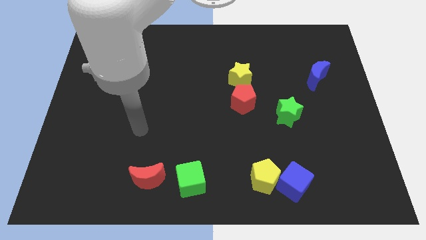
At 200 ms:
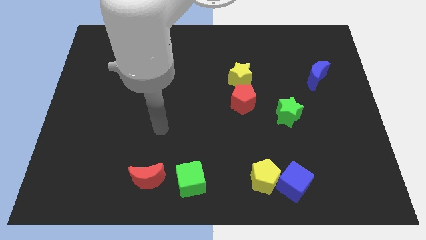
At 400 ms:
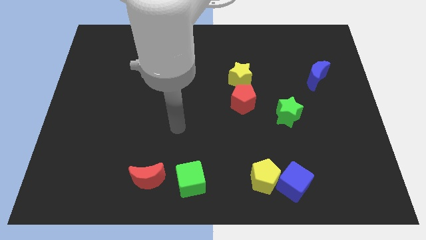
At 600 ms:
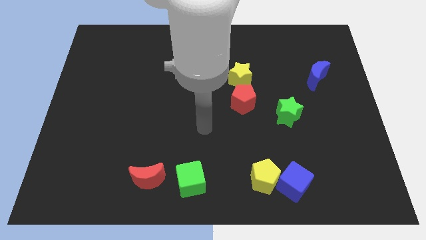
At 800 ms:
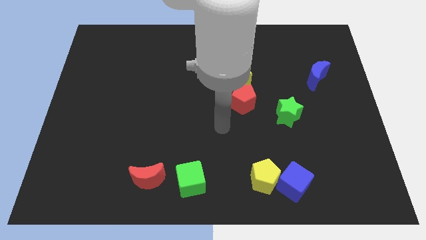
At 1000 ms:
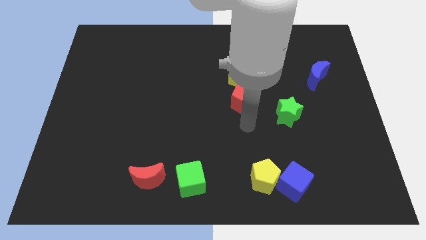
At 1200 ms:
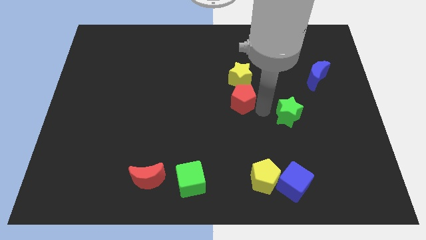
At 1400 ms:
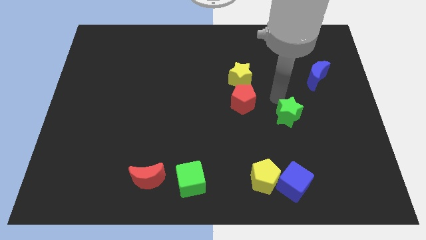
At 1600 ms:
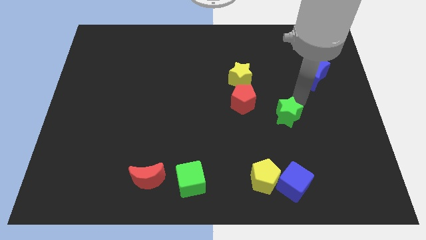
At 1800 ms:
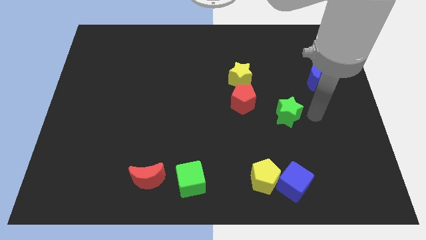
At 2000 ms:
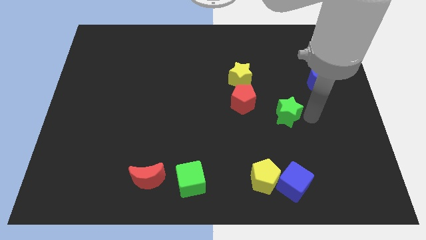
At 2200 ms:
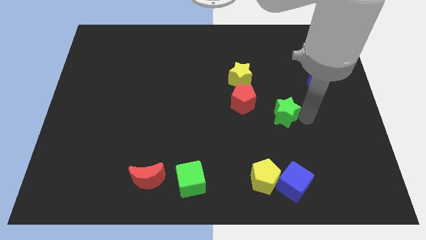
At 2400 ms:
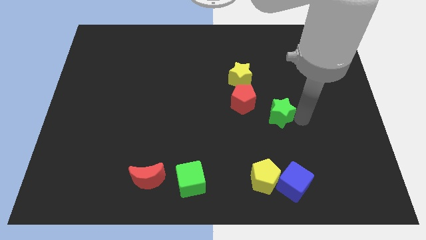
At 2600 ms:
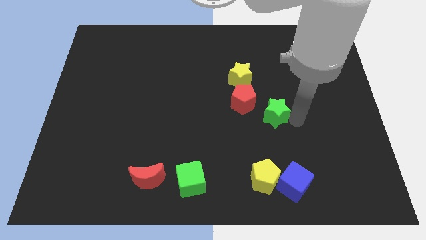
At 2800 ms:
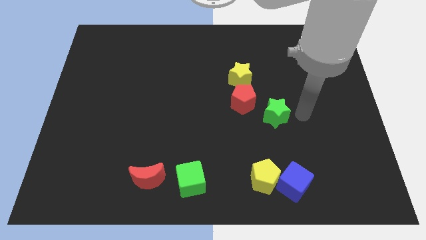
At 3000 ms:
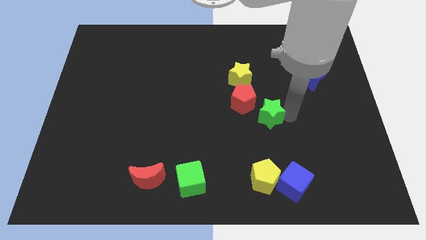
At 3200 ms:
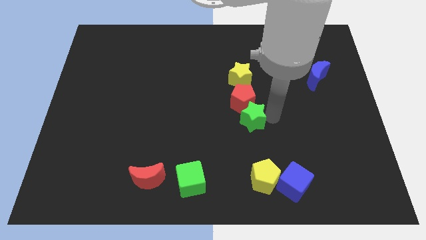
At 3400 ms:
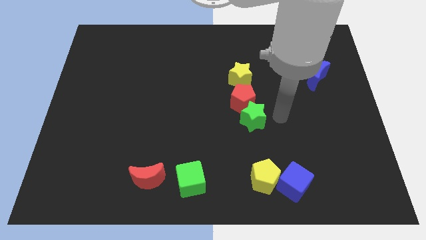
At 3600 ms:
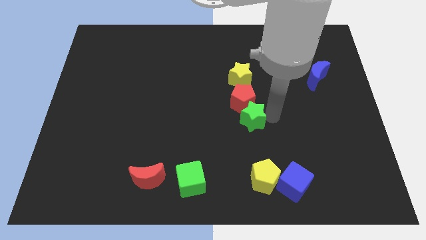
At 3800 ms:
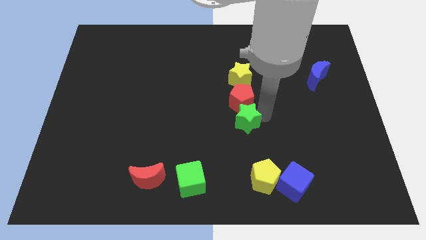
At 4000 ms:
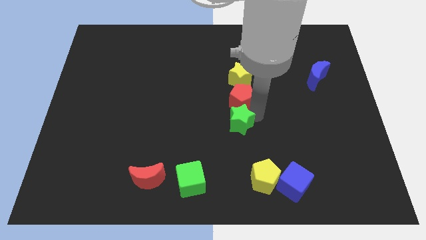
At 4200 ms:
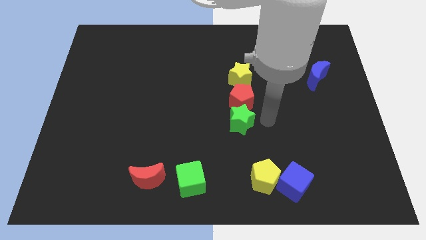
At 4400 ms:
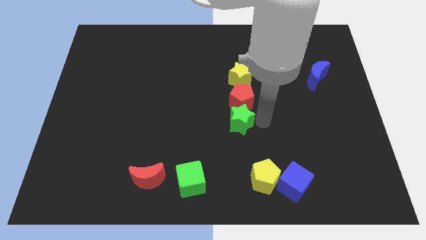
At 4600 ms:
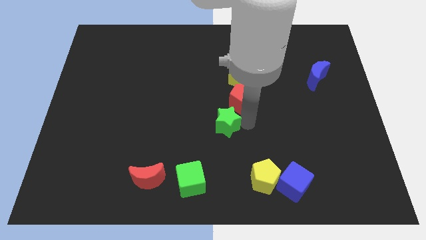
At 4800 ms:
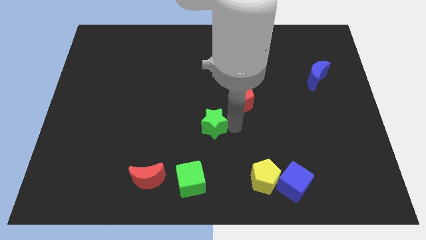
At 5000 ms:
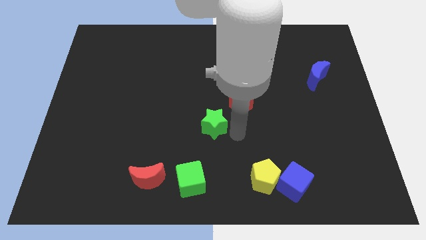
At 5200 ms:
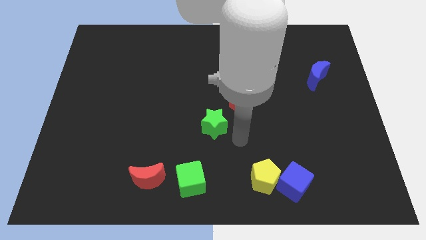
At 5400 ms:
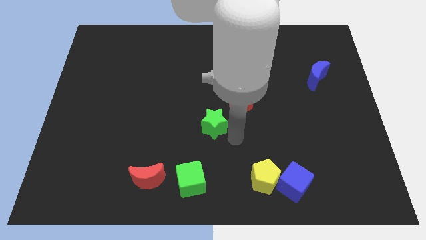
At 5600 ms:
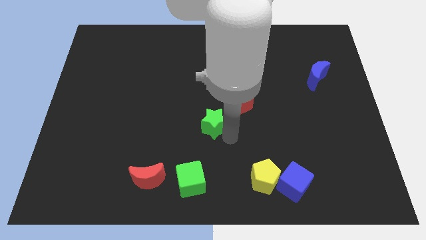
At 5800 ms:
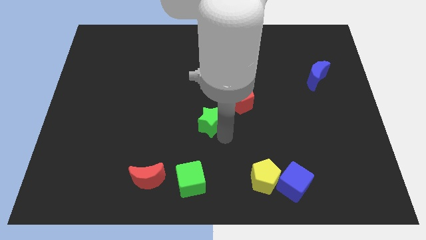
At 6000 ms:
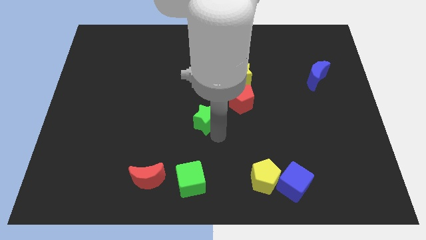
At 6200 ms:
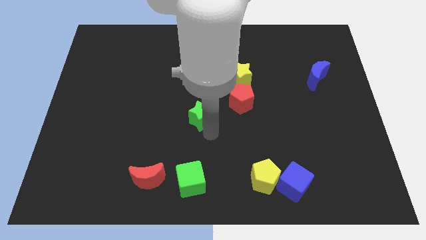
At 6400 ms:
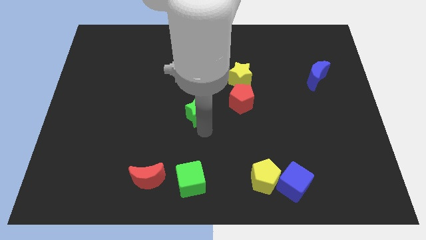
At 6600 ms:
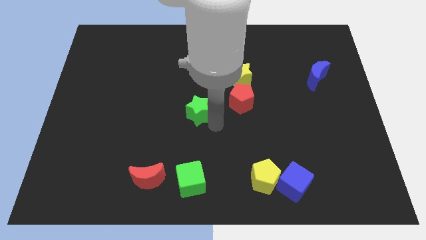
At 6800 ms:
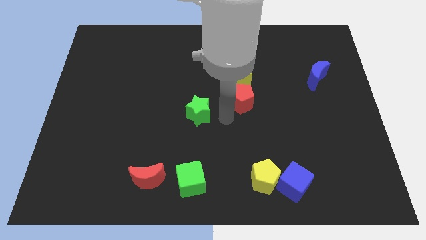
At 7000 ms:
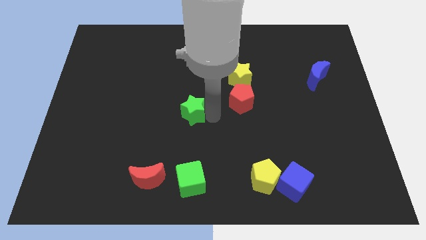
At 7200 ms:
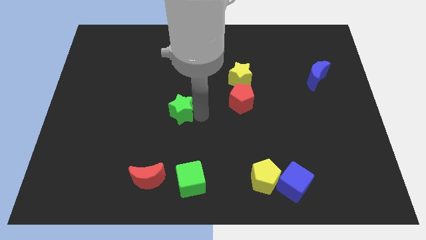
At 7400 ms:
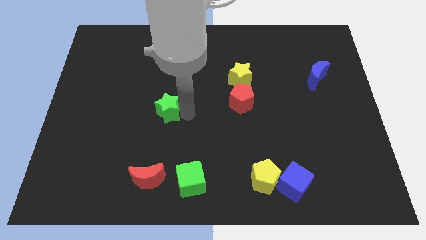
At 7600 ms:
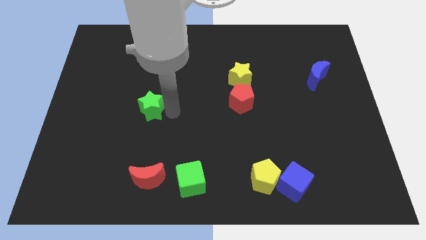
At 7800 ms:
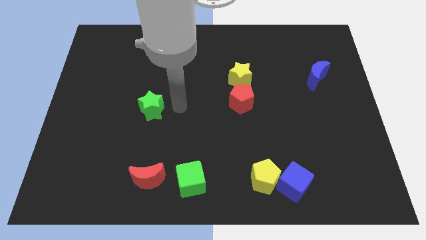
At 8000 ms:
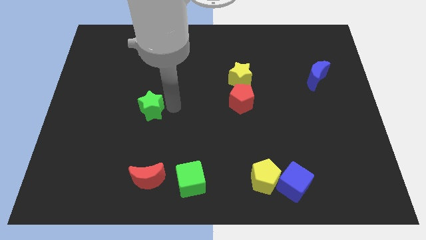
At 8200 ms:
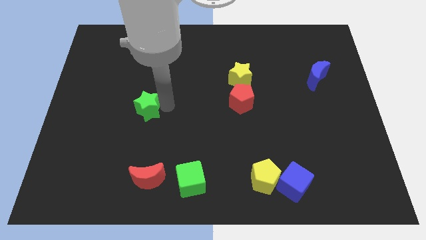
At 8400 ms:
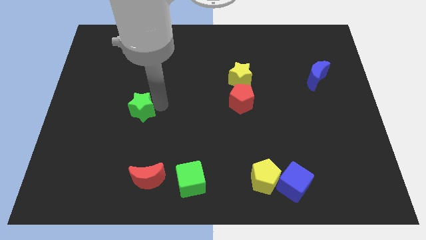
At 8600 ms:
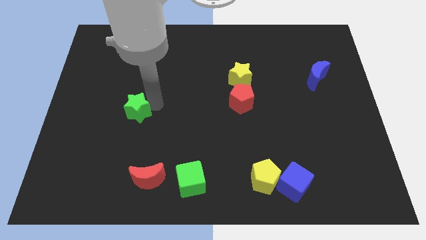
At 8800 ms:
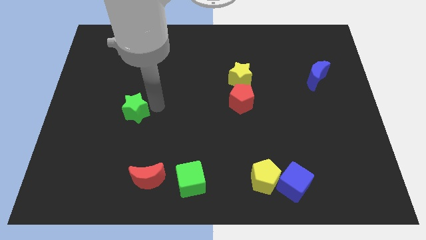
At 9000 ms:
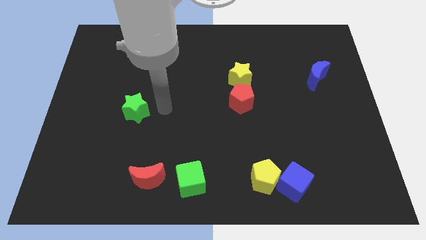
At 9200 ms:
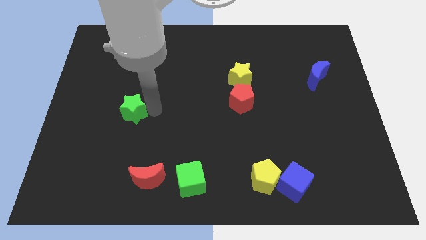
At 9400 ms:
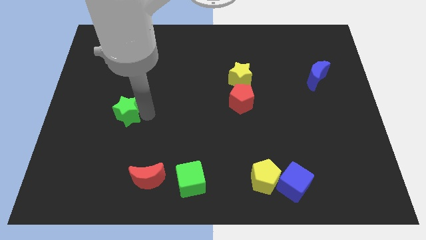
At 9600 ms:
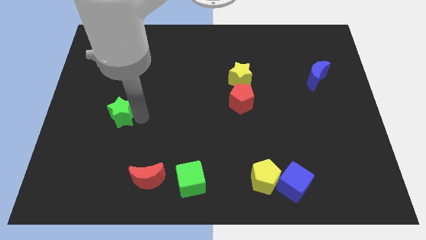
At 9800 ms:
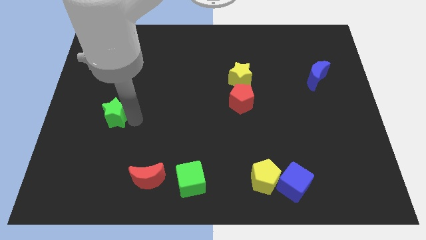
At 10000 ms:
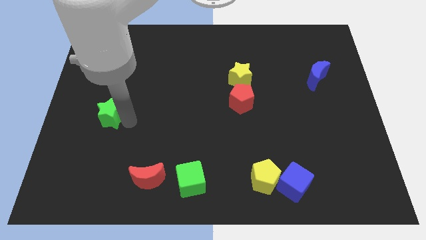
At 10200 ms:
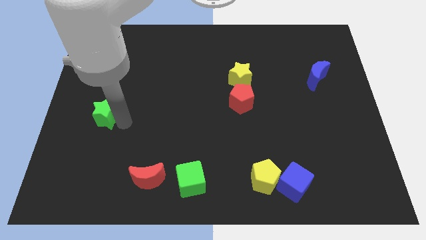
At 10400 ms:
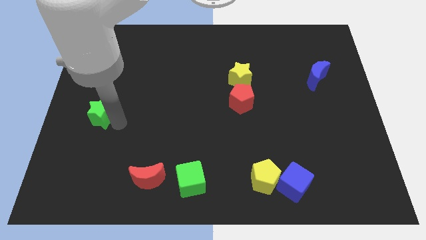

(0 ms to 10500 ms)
move the green star to the left side

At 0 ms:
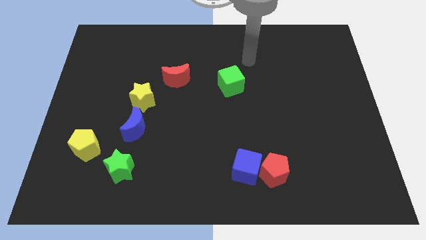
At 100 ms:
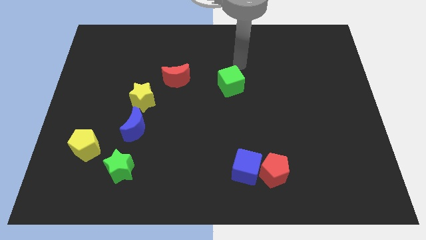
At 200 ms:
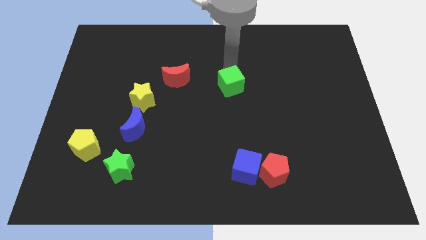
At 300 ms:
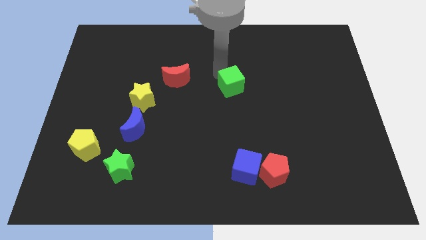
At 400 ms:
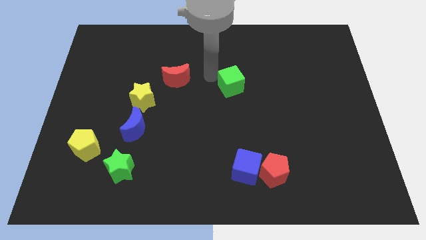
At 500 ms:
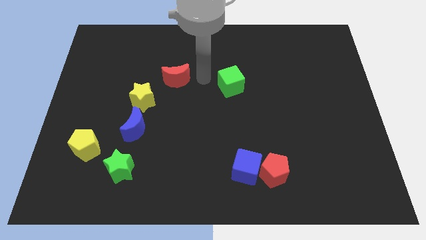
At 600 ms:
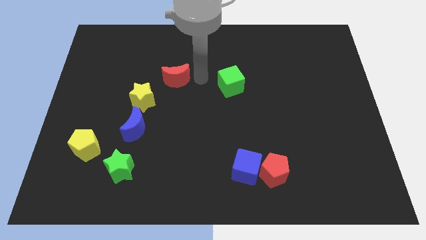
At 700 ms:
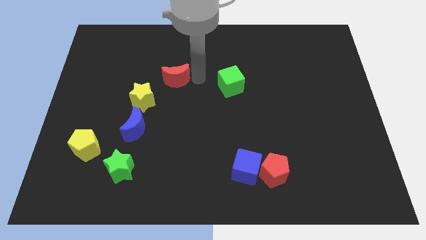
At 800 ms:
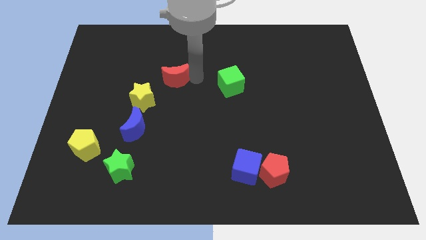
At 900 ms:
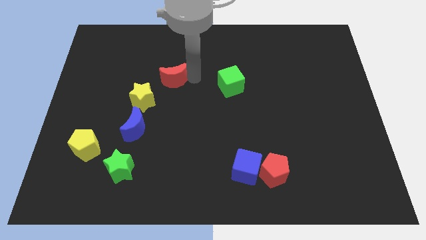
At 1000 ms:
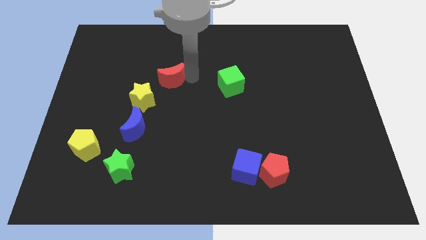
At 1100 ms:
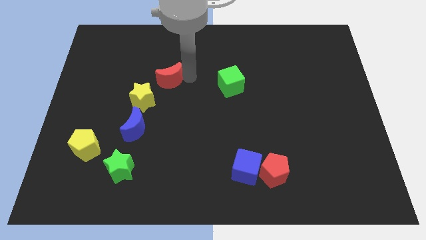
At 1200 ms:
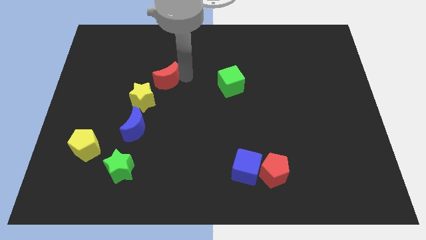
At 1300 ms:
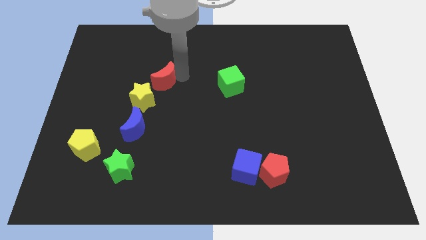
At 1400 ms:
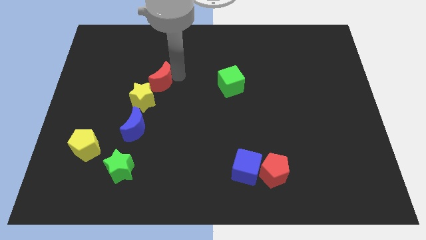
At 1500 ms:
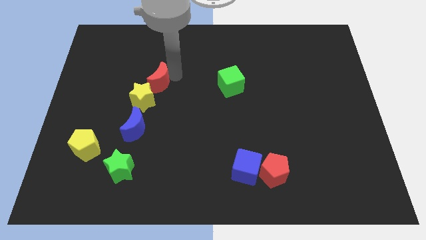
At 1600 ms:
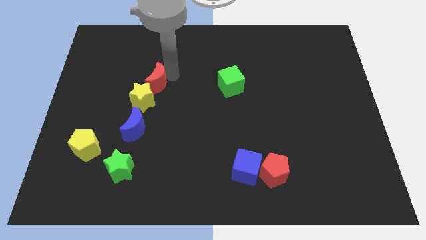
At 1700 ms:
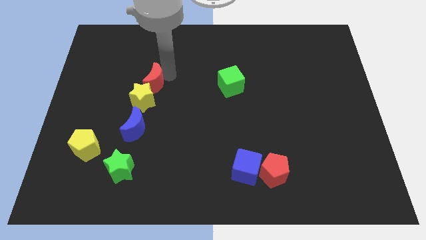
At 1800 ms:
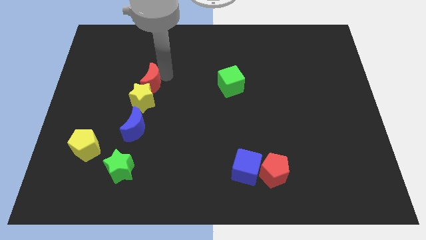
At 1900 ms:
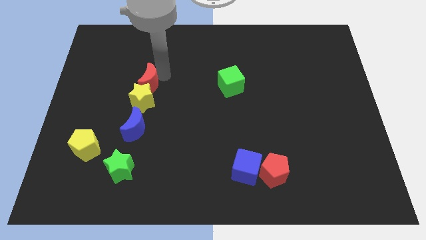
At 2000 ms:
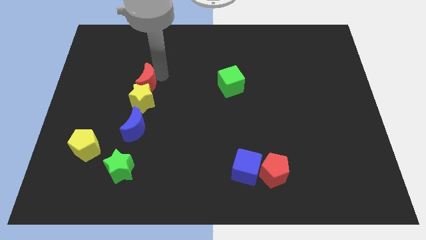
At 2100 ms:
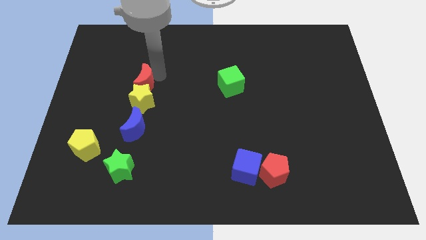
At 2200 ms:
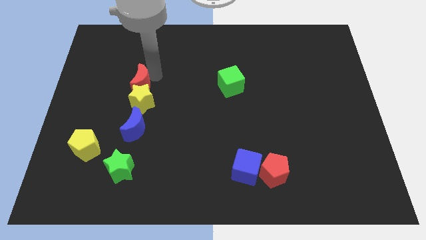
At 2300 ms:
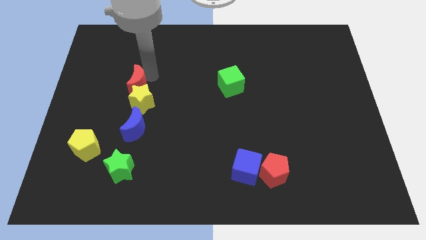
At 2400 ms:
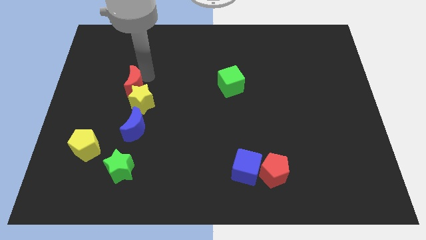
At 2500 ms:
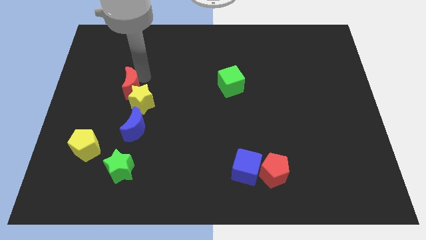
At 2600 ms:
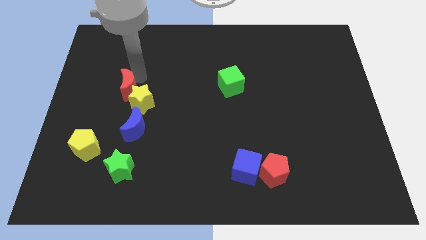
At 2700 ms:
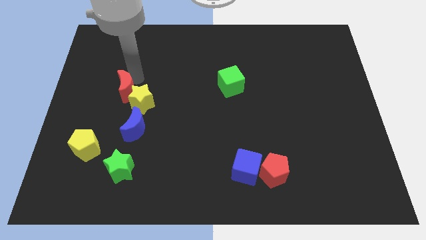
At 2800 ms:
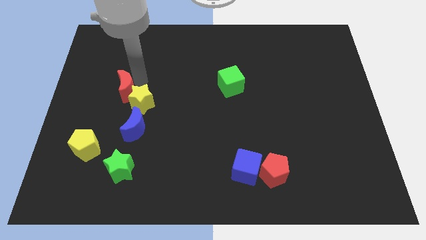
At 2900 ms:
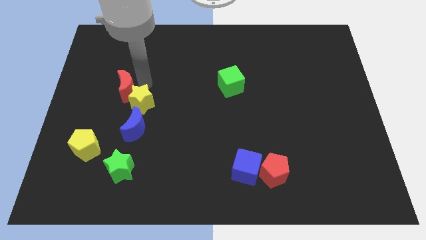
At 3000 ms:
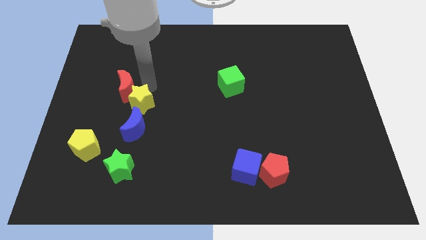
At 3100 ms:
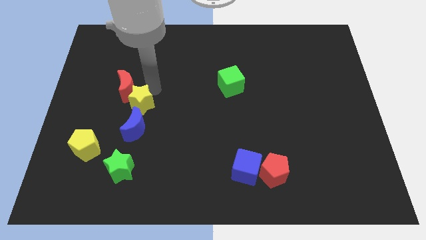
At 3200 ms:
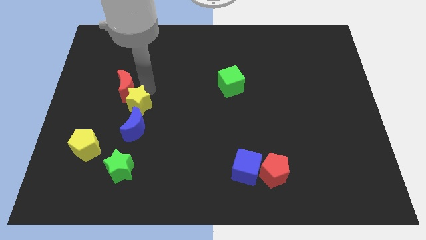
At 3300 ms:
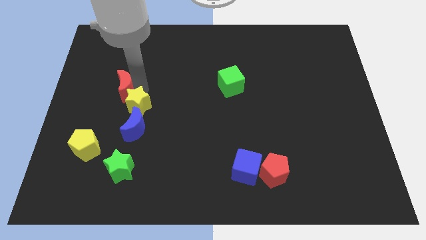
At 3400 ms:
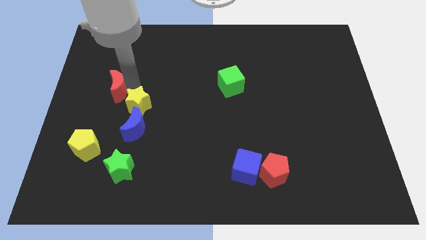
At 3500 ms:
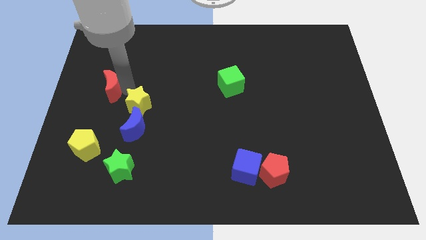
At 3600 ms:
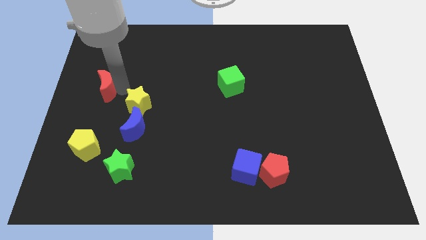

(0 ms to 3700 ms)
push the red moon to the center left
